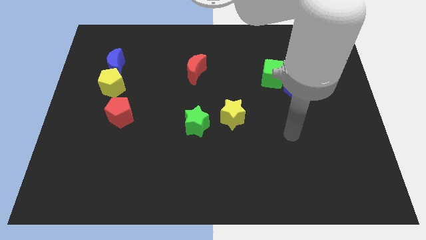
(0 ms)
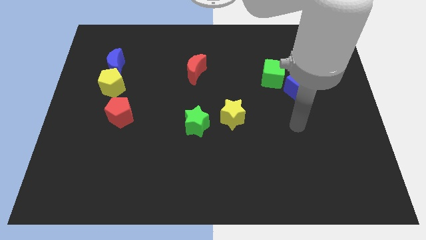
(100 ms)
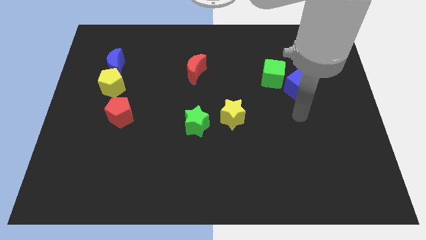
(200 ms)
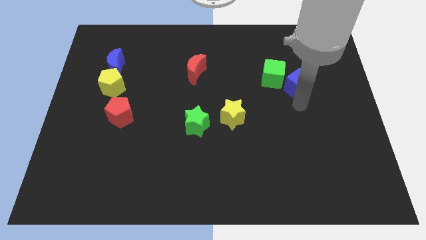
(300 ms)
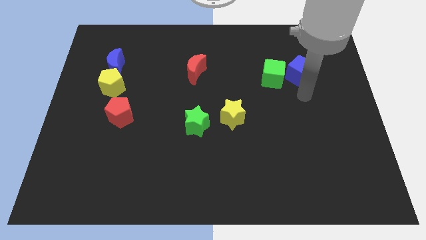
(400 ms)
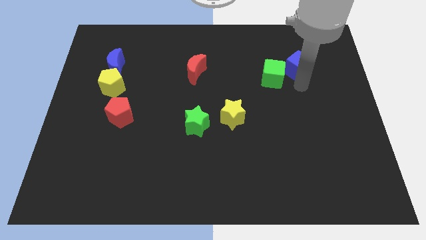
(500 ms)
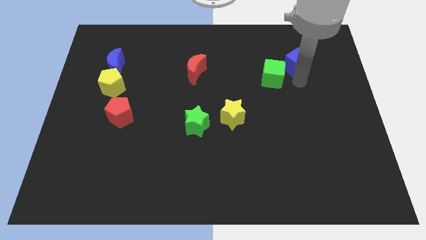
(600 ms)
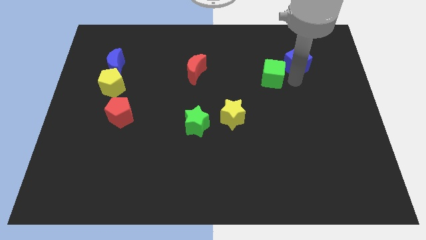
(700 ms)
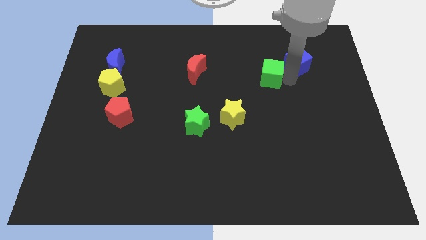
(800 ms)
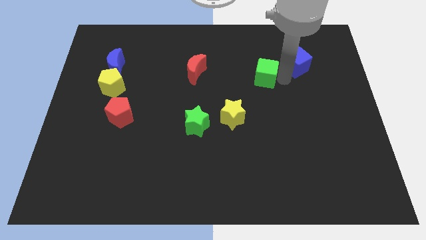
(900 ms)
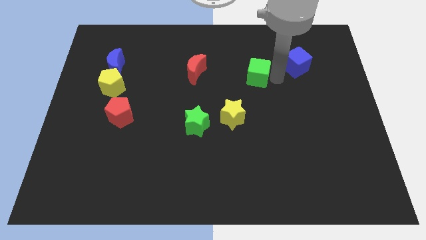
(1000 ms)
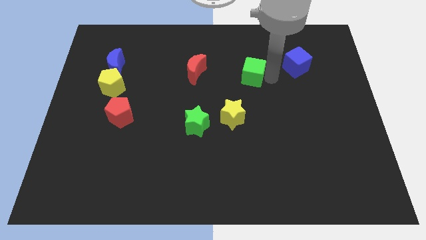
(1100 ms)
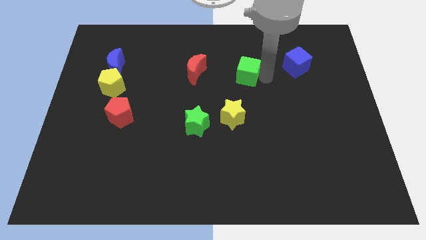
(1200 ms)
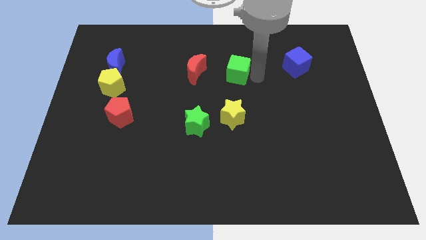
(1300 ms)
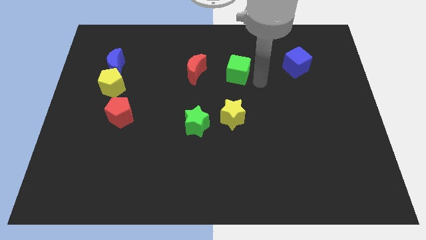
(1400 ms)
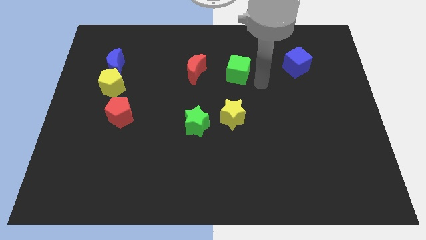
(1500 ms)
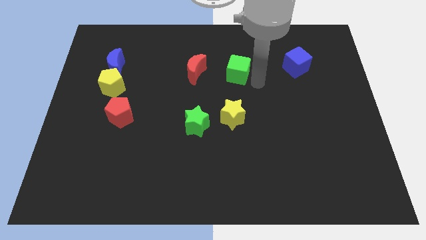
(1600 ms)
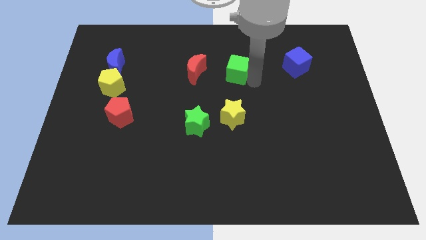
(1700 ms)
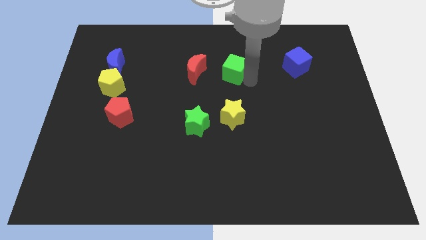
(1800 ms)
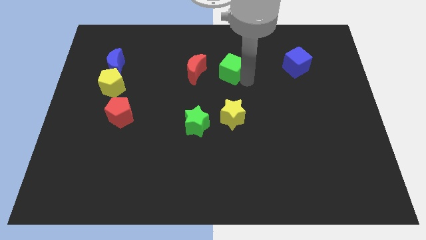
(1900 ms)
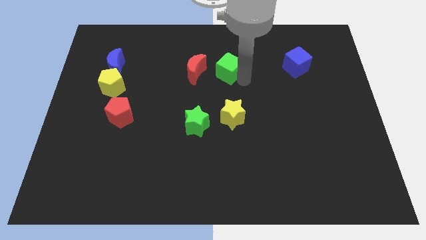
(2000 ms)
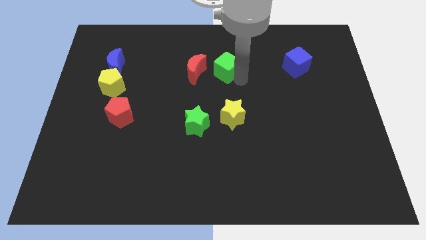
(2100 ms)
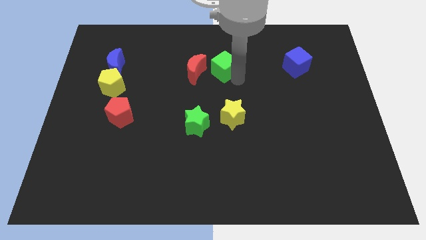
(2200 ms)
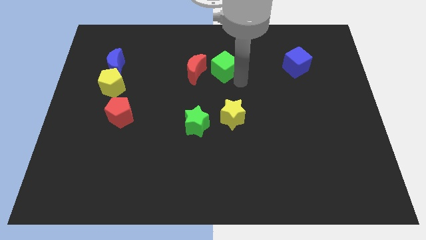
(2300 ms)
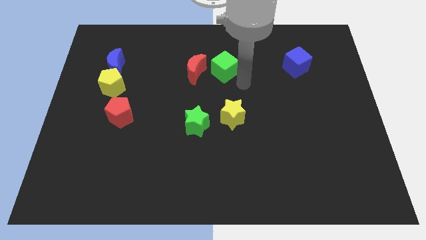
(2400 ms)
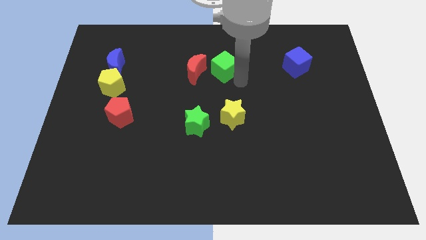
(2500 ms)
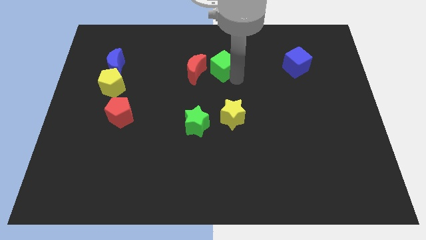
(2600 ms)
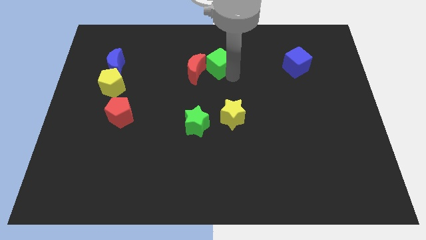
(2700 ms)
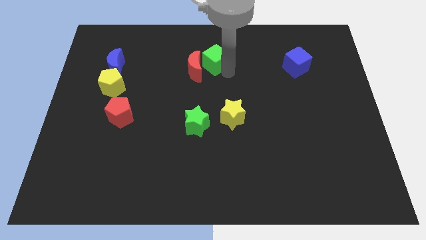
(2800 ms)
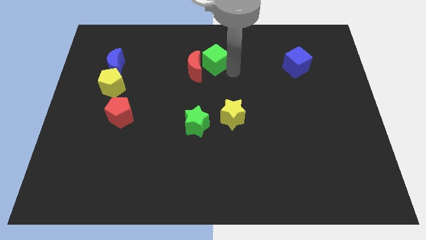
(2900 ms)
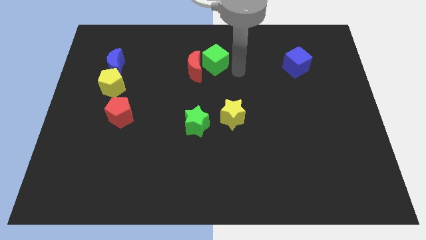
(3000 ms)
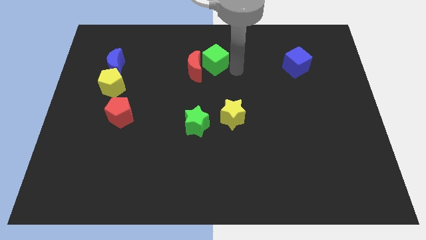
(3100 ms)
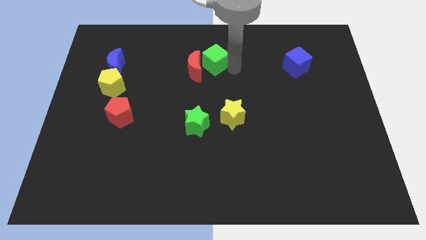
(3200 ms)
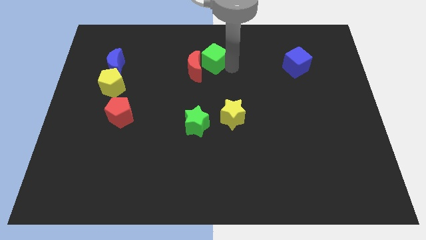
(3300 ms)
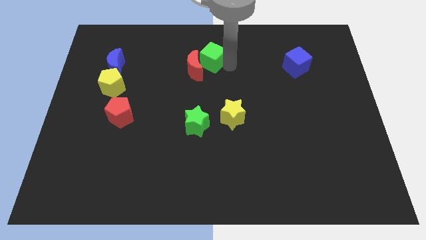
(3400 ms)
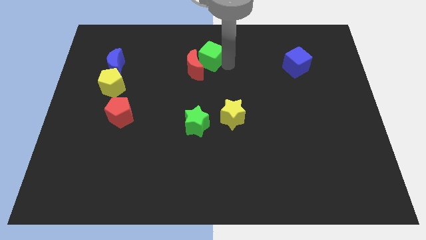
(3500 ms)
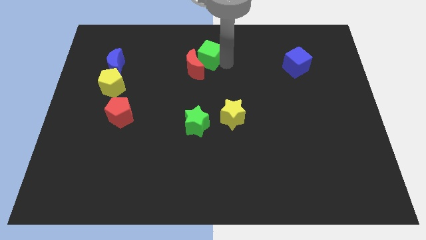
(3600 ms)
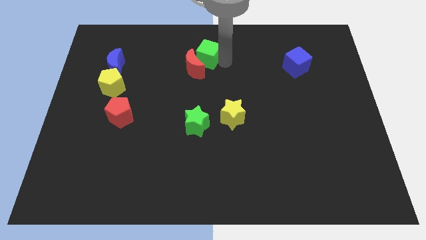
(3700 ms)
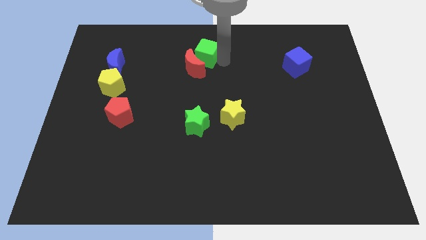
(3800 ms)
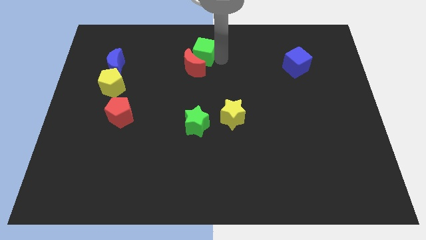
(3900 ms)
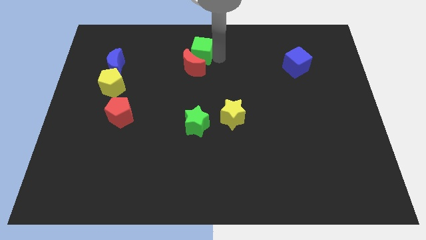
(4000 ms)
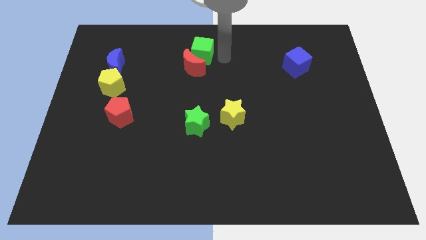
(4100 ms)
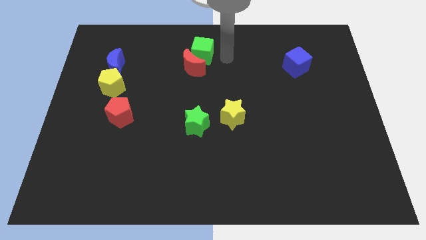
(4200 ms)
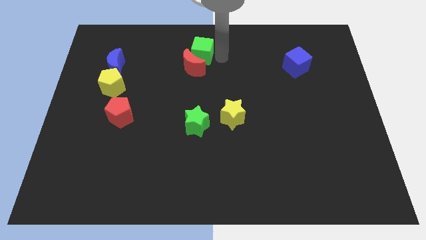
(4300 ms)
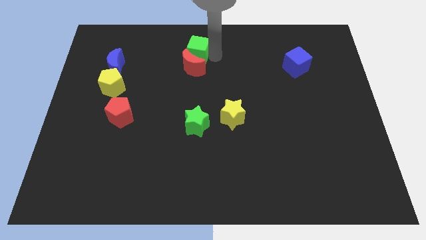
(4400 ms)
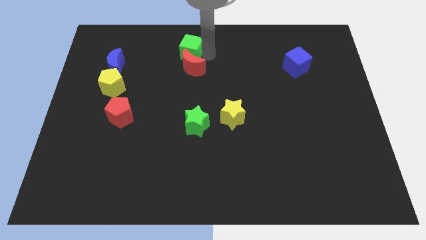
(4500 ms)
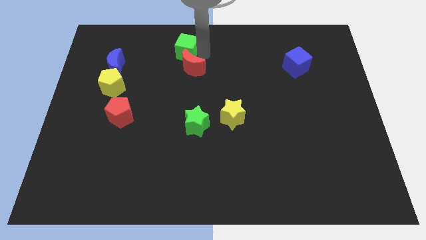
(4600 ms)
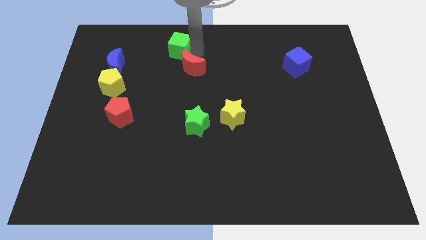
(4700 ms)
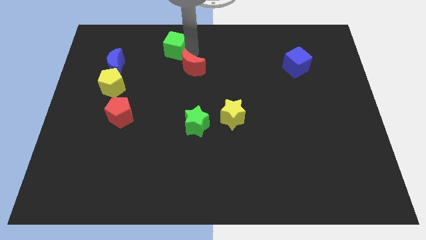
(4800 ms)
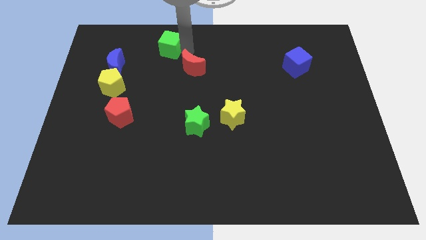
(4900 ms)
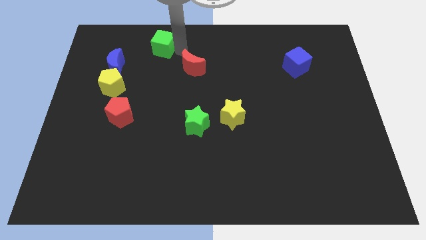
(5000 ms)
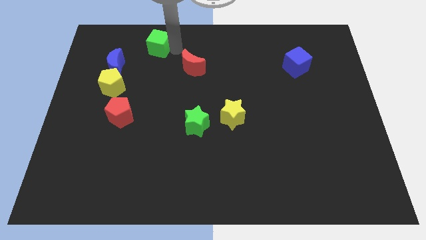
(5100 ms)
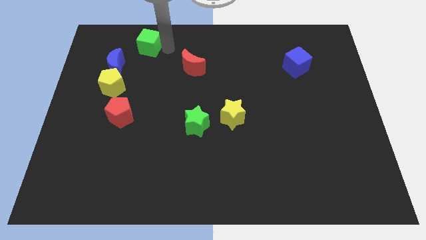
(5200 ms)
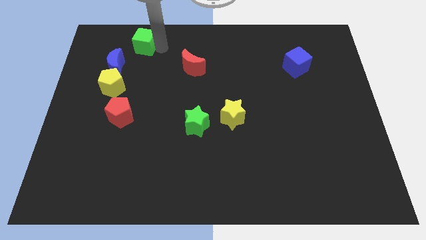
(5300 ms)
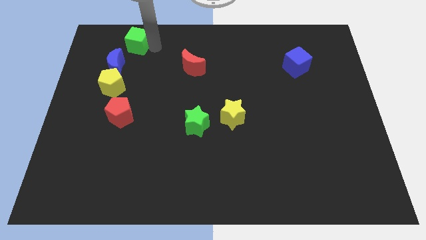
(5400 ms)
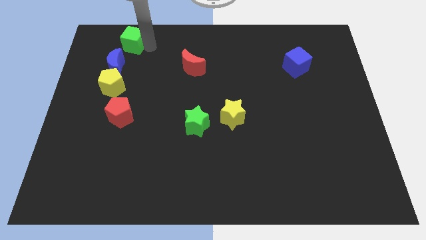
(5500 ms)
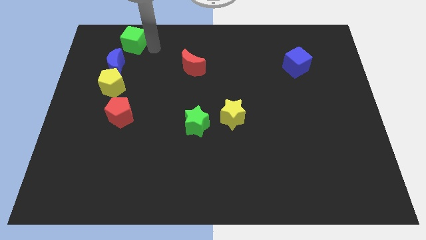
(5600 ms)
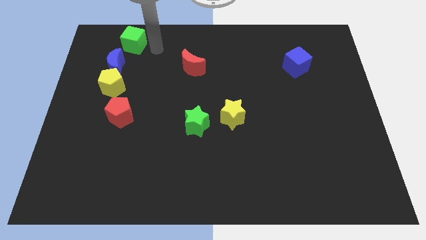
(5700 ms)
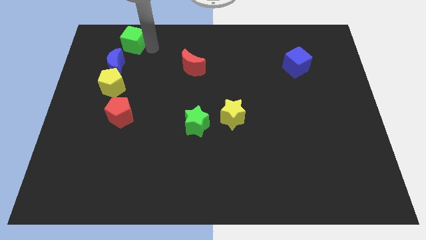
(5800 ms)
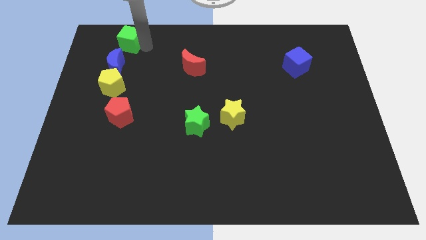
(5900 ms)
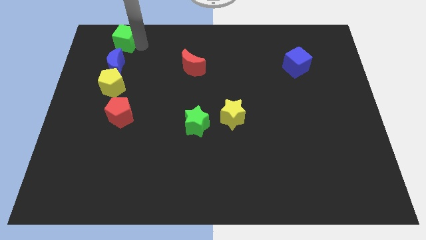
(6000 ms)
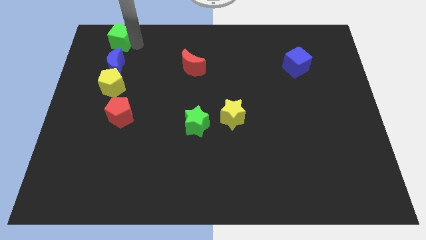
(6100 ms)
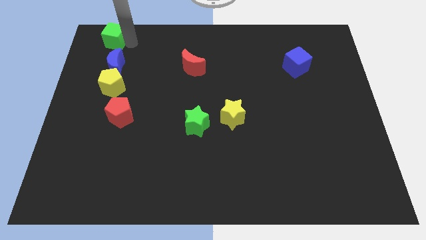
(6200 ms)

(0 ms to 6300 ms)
put the green cube to the upper left corner

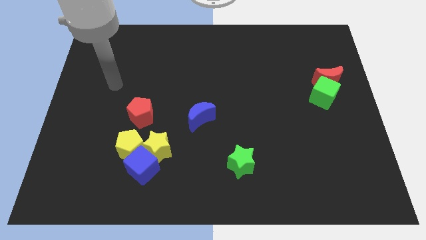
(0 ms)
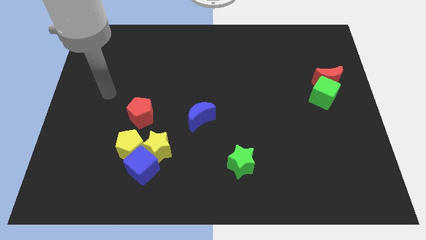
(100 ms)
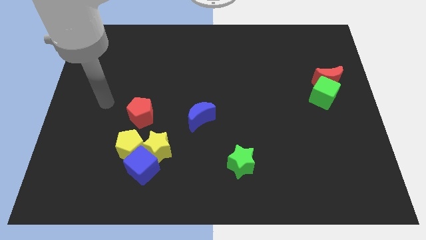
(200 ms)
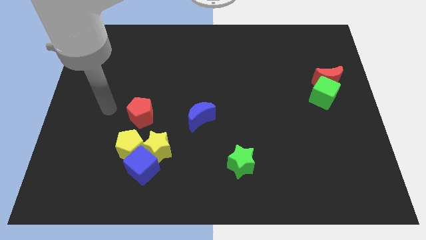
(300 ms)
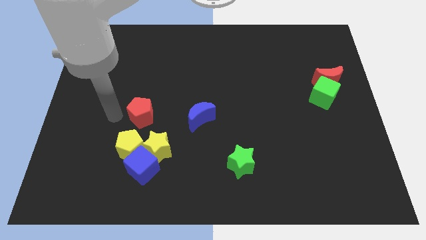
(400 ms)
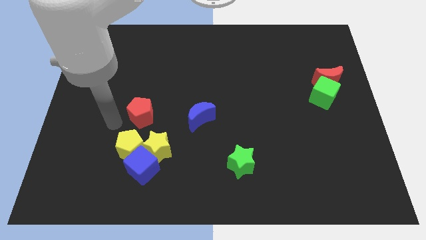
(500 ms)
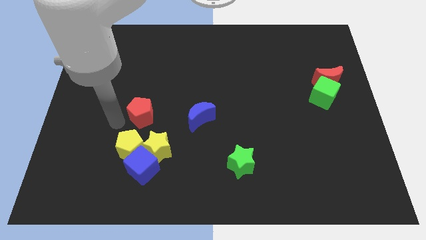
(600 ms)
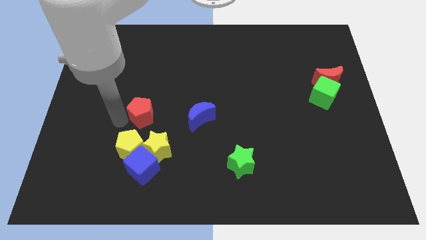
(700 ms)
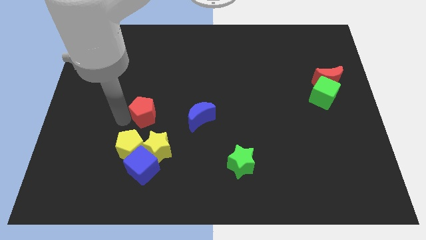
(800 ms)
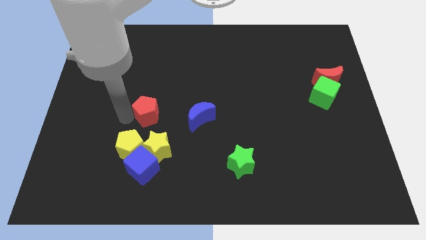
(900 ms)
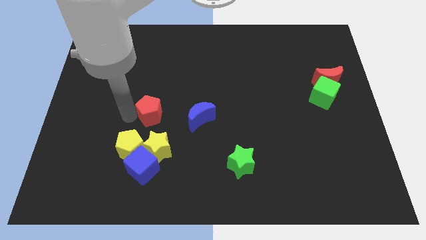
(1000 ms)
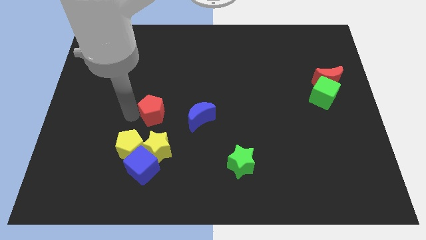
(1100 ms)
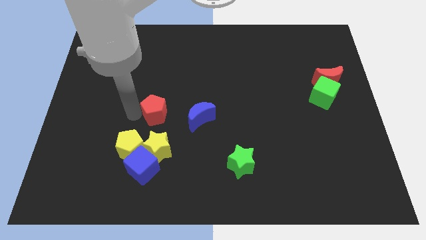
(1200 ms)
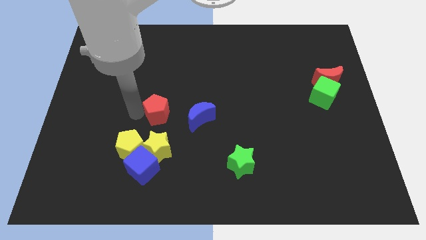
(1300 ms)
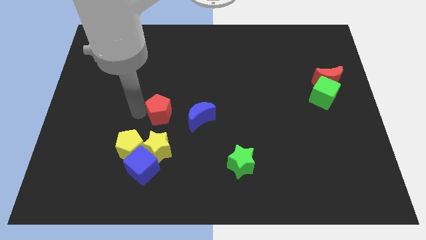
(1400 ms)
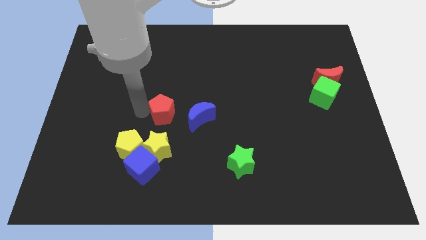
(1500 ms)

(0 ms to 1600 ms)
put the red pentagon to the center
